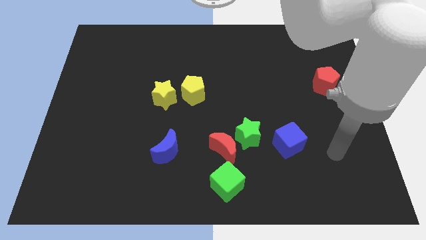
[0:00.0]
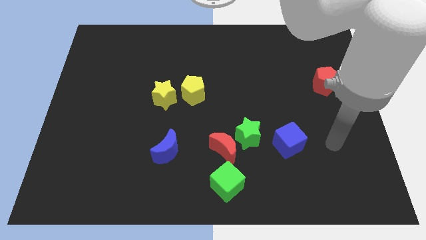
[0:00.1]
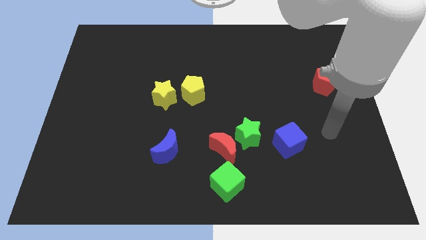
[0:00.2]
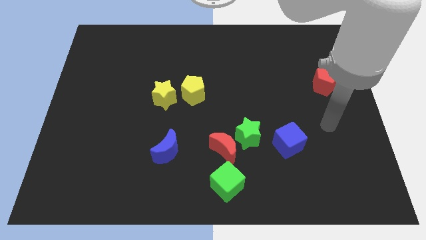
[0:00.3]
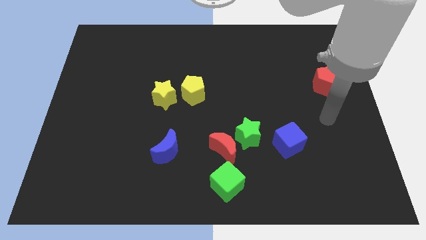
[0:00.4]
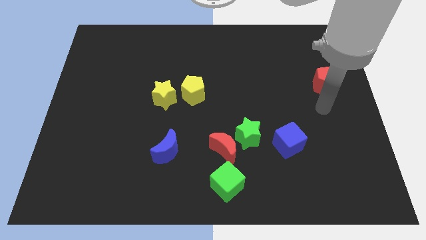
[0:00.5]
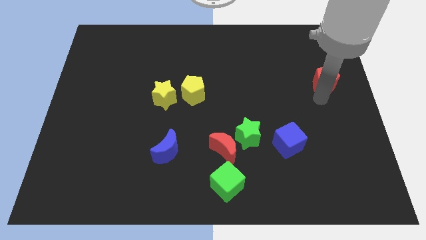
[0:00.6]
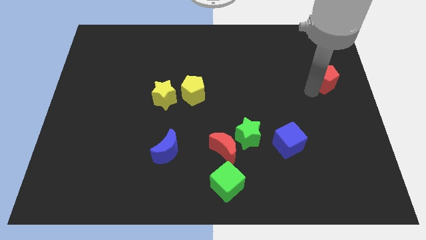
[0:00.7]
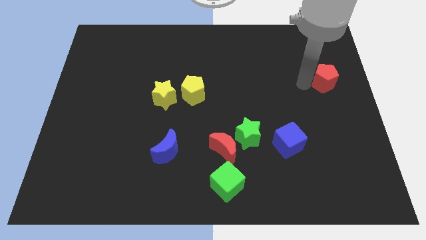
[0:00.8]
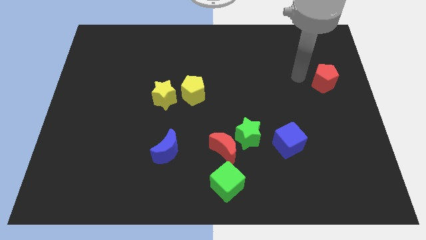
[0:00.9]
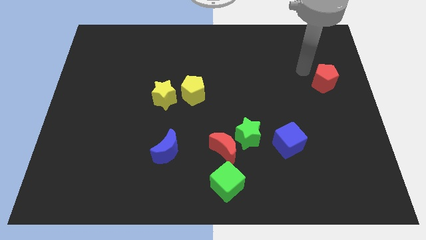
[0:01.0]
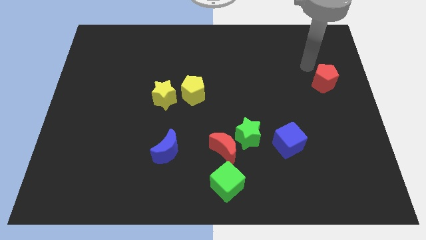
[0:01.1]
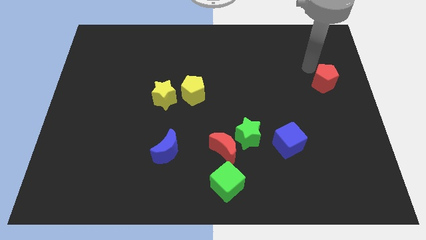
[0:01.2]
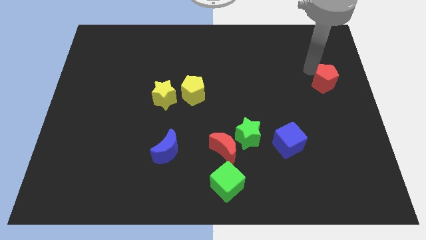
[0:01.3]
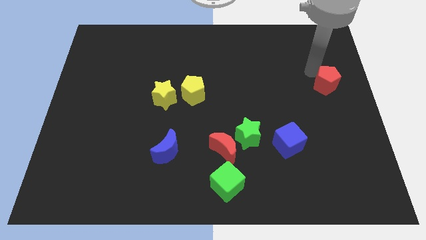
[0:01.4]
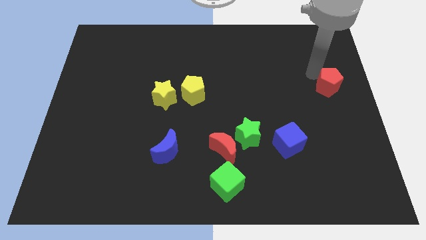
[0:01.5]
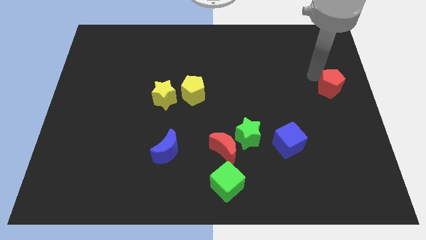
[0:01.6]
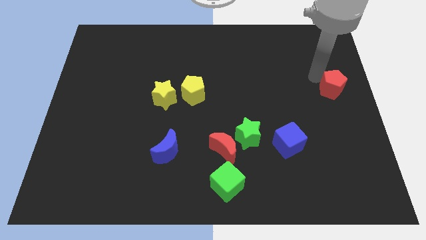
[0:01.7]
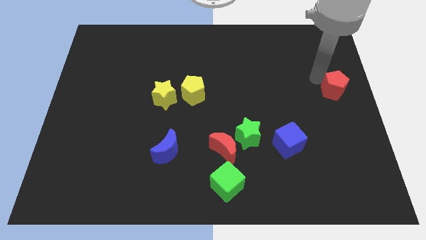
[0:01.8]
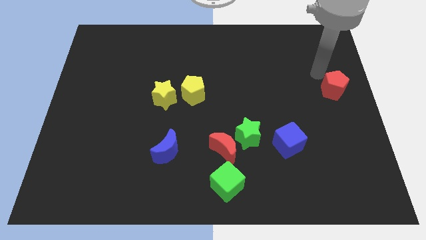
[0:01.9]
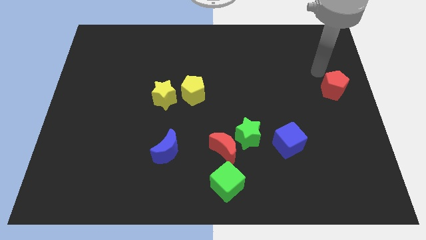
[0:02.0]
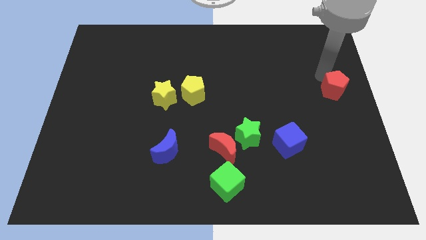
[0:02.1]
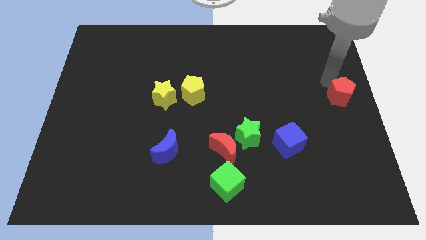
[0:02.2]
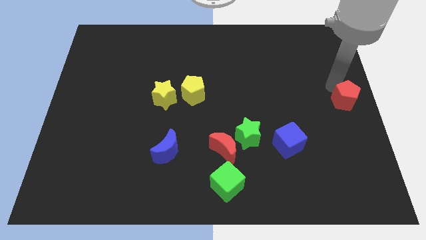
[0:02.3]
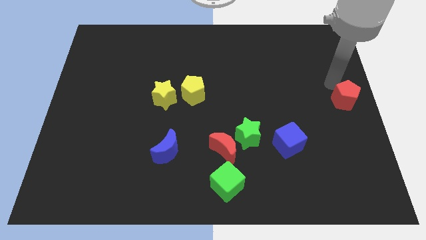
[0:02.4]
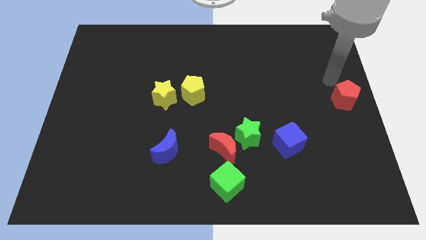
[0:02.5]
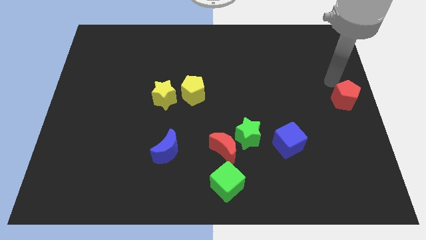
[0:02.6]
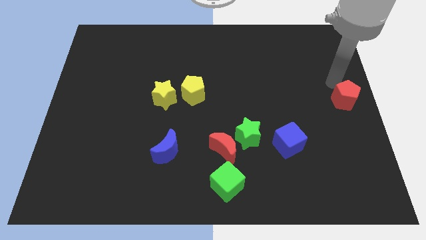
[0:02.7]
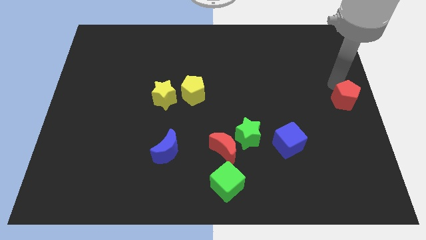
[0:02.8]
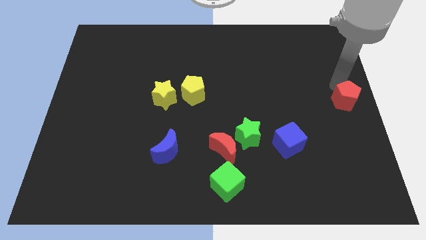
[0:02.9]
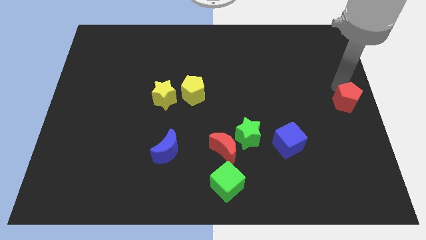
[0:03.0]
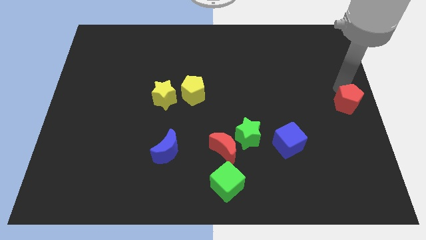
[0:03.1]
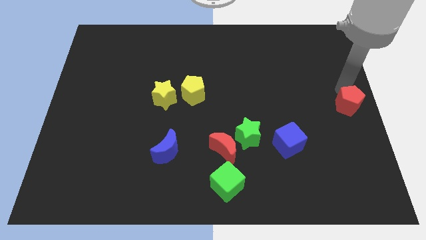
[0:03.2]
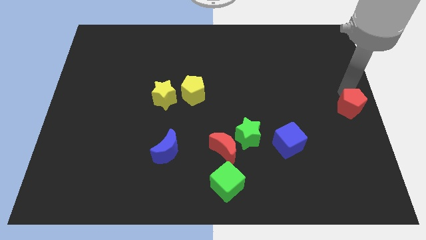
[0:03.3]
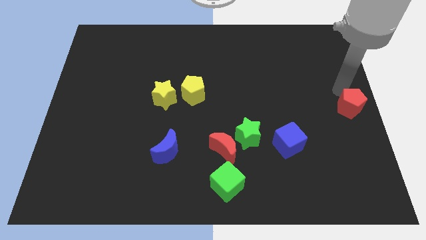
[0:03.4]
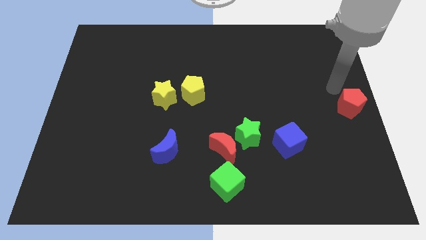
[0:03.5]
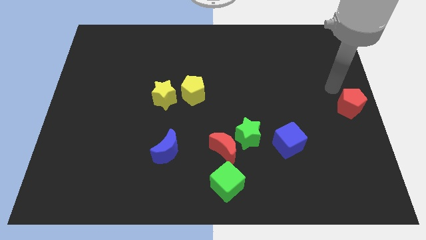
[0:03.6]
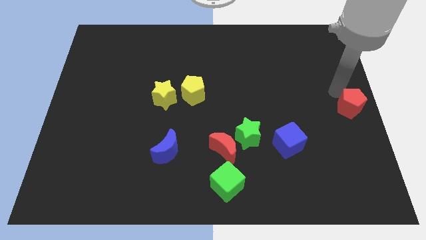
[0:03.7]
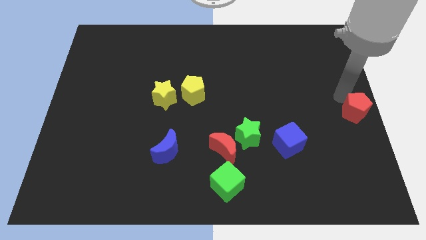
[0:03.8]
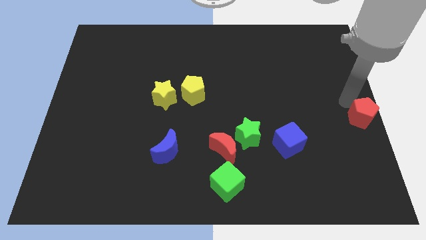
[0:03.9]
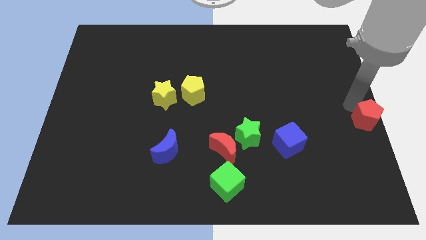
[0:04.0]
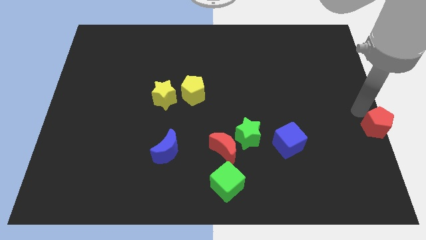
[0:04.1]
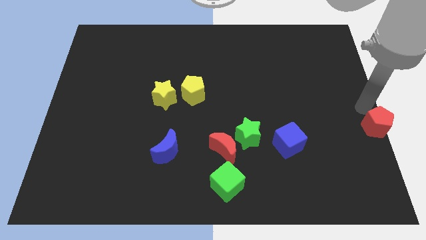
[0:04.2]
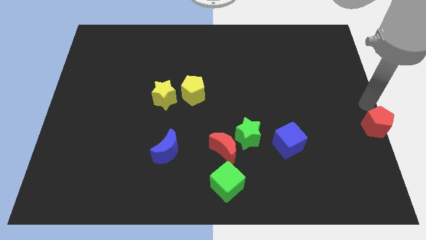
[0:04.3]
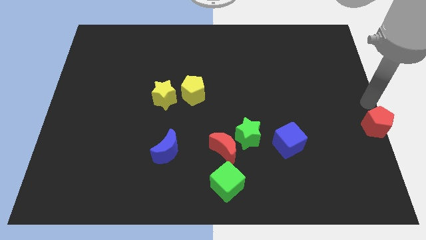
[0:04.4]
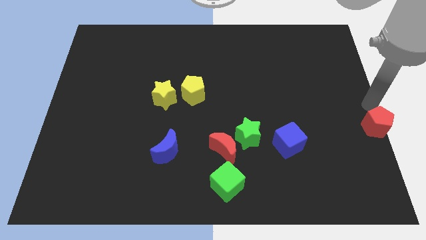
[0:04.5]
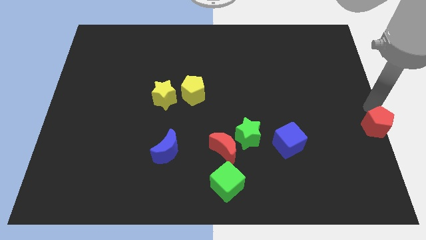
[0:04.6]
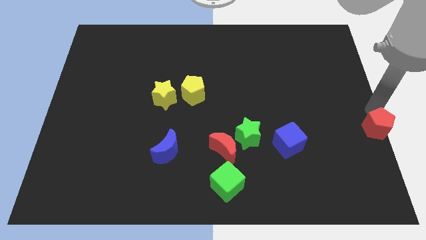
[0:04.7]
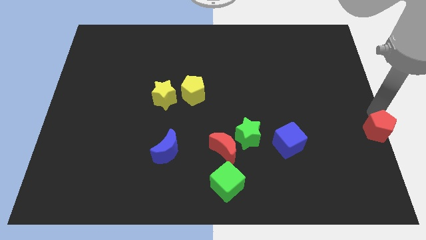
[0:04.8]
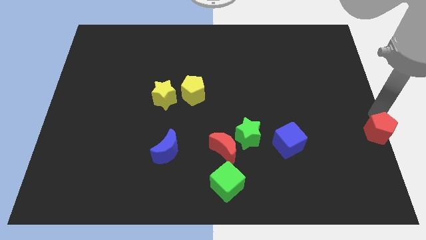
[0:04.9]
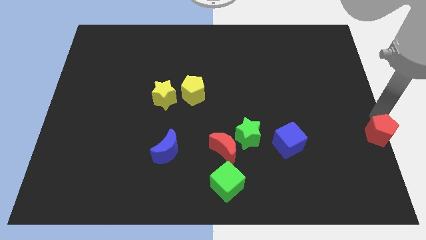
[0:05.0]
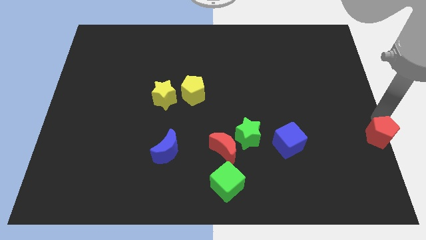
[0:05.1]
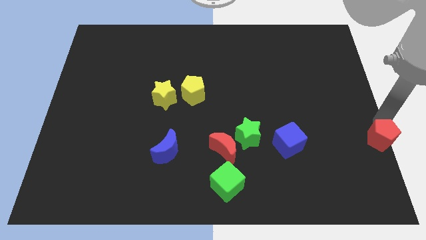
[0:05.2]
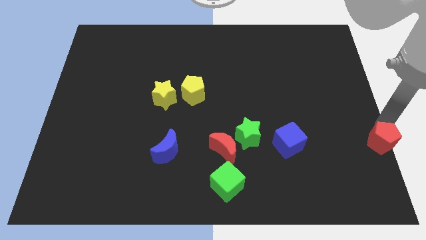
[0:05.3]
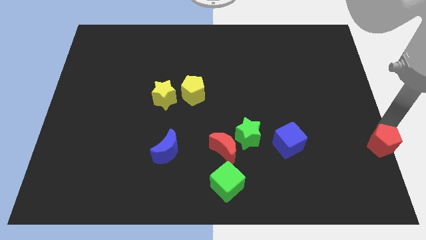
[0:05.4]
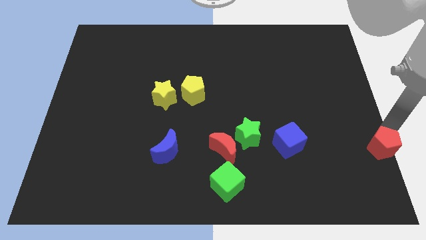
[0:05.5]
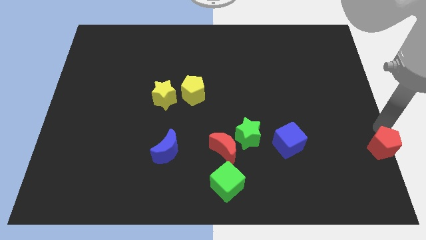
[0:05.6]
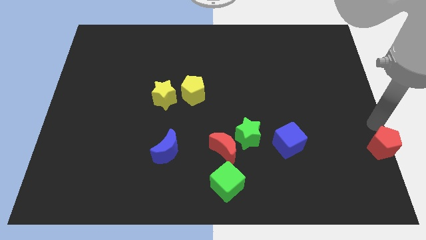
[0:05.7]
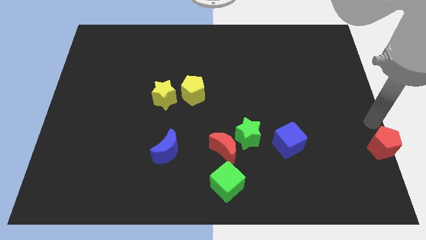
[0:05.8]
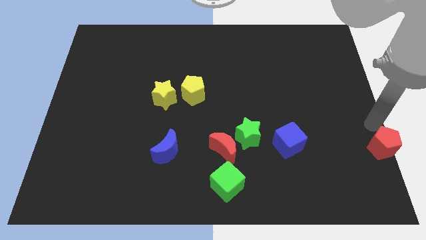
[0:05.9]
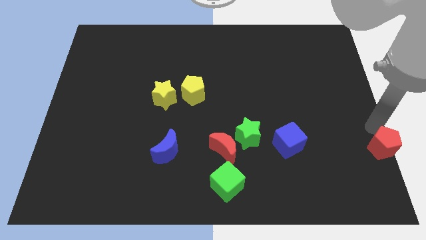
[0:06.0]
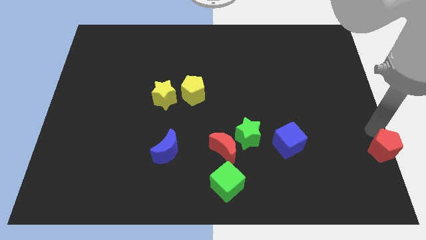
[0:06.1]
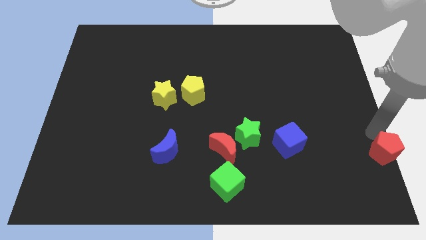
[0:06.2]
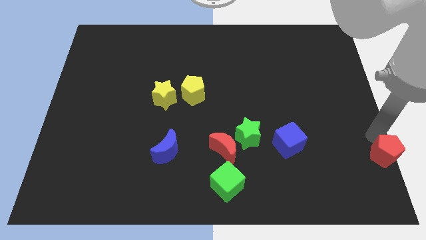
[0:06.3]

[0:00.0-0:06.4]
move the red pentagon to the lower right corner
